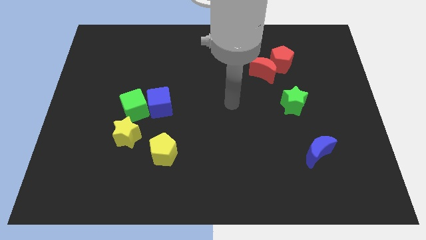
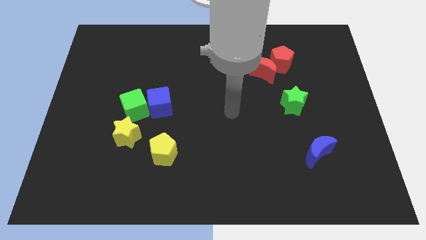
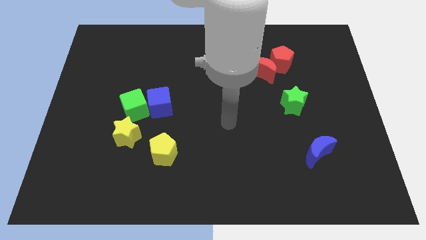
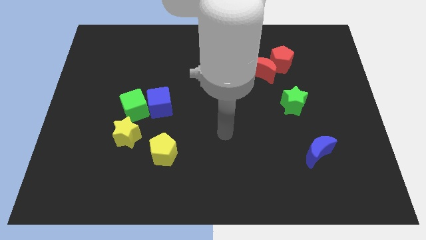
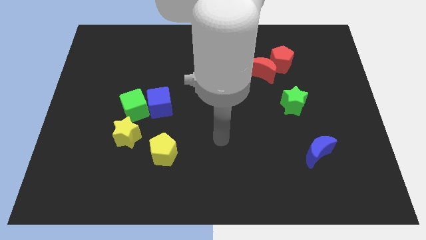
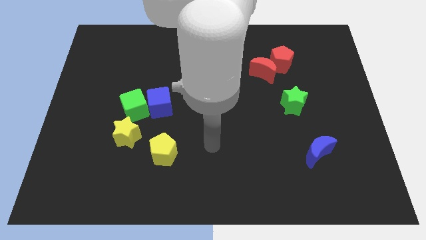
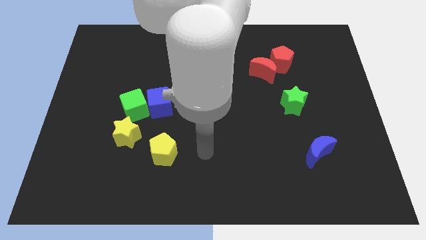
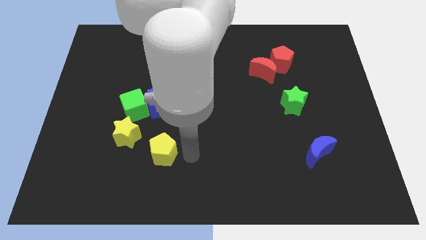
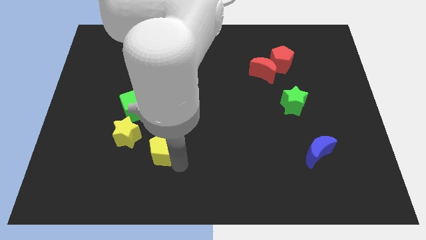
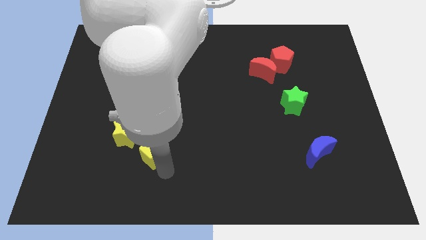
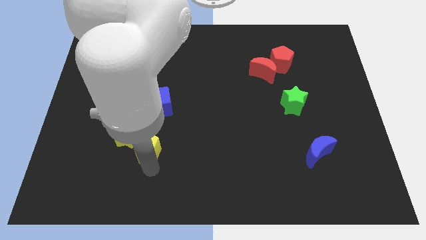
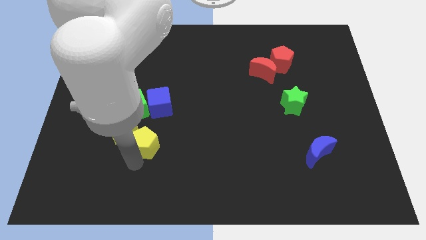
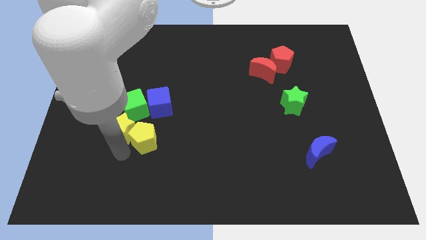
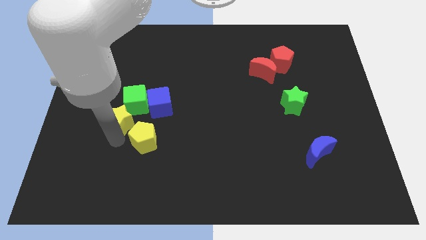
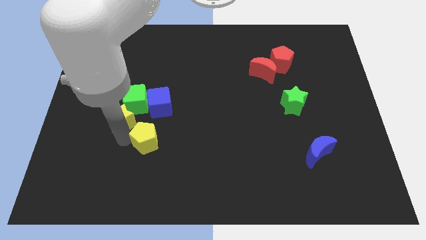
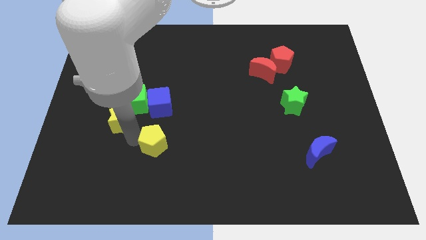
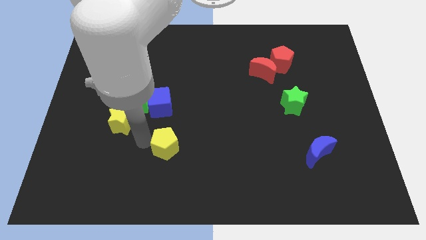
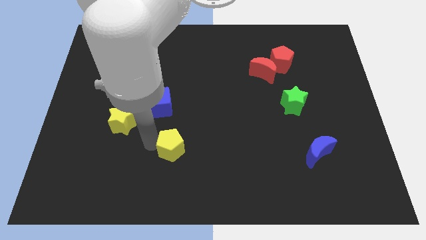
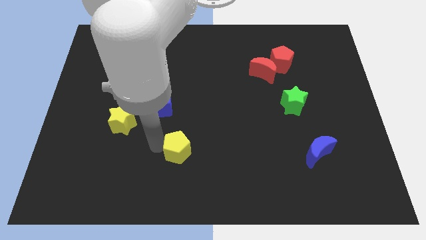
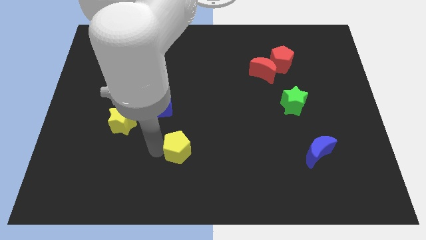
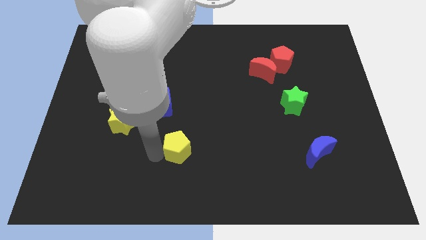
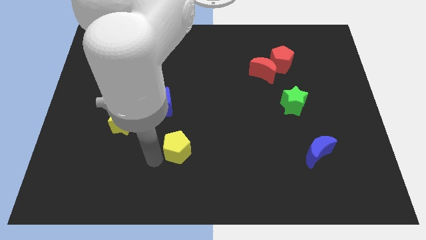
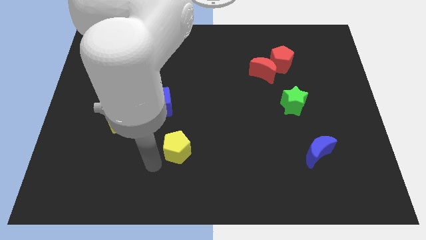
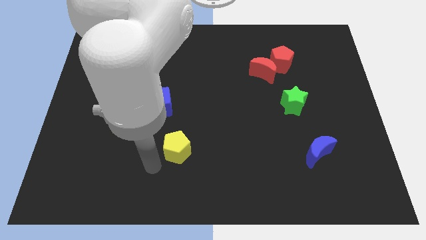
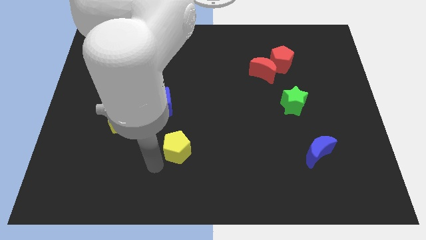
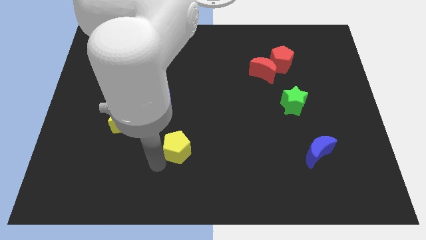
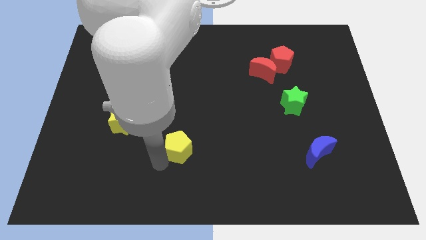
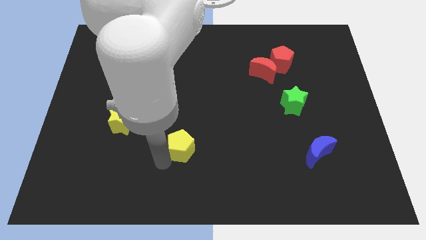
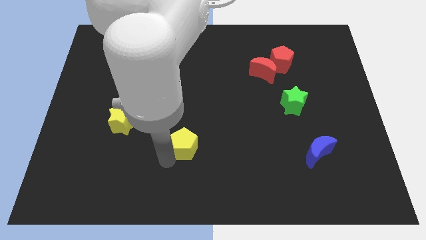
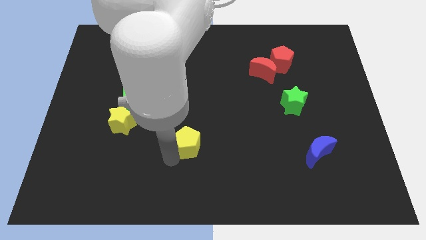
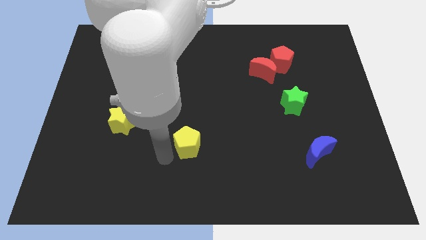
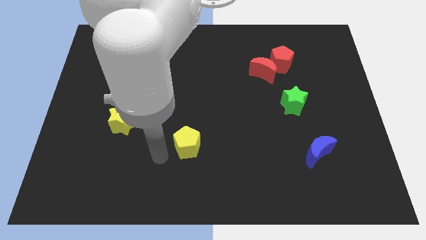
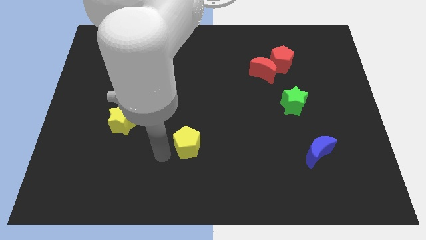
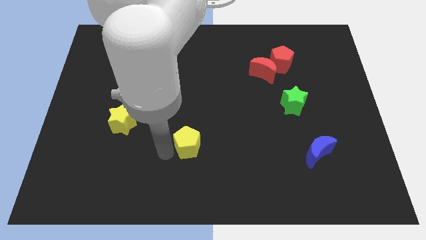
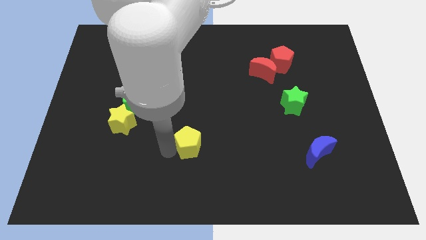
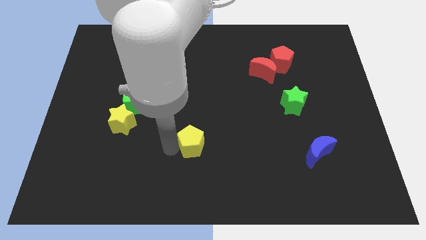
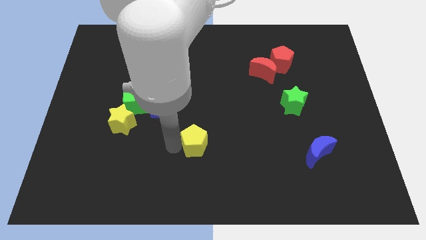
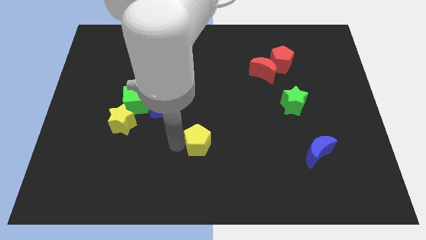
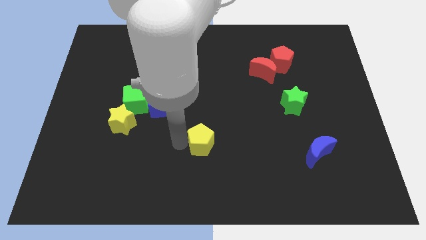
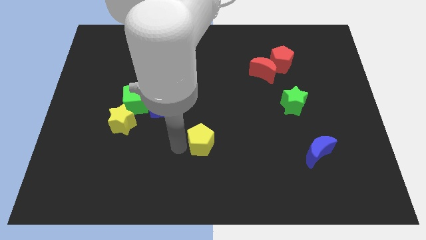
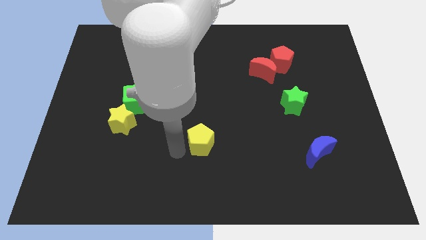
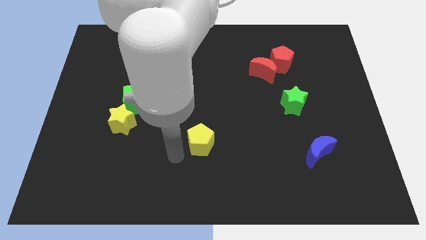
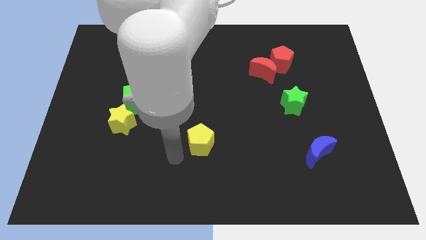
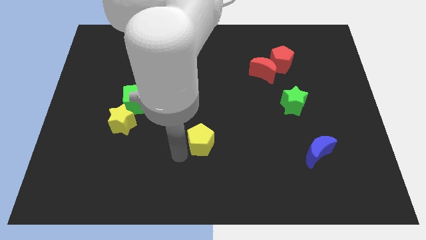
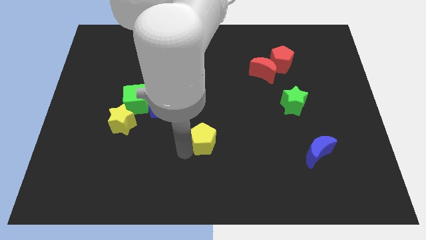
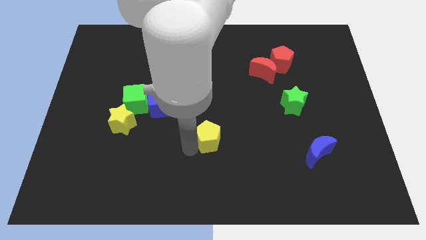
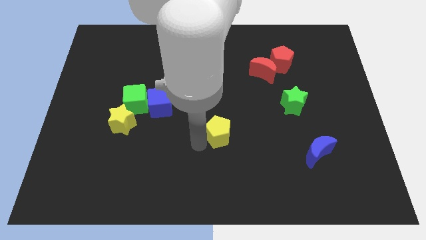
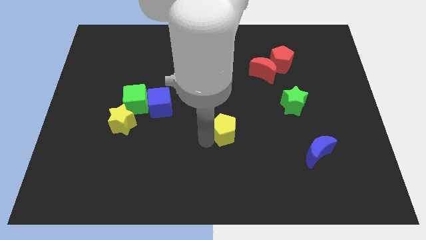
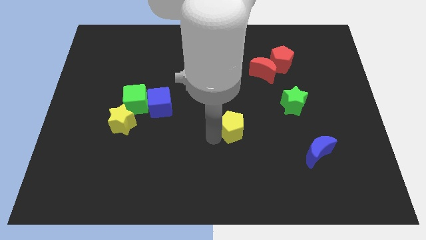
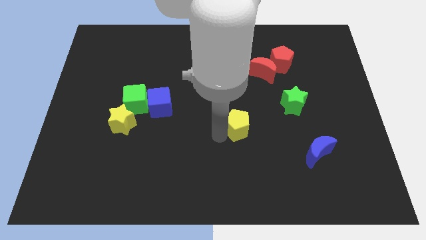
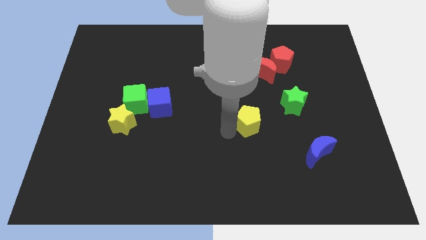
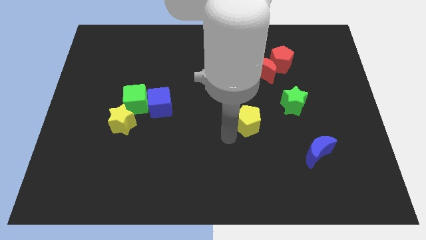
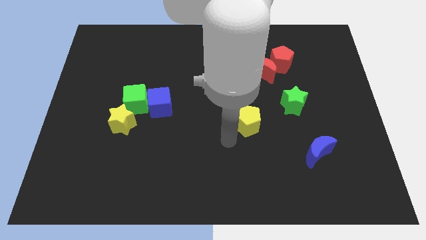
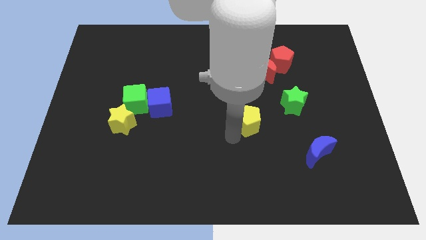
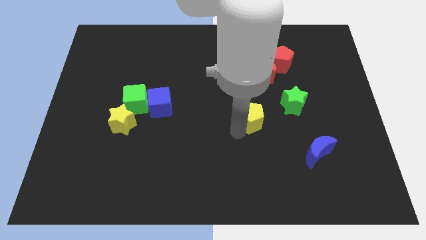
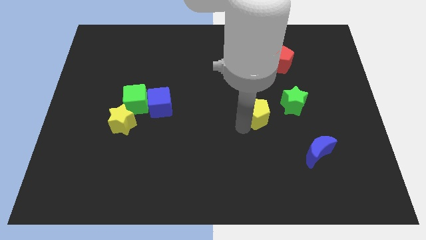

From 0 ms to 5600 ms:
push the yellow pentagon below the red moon

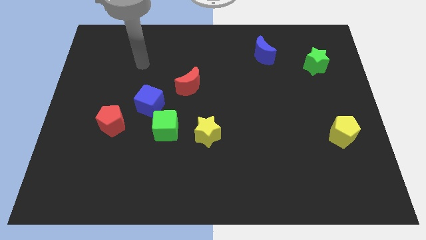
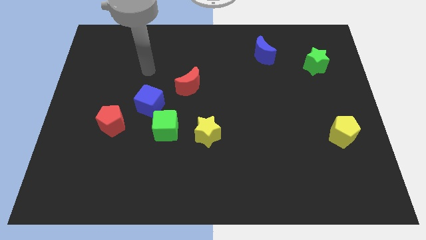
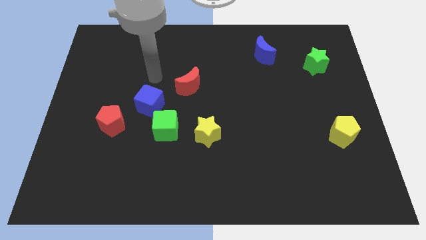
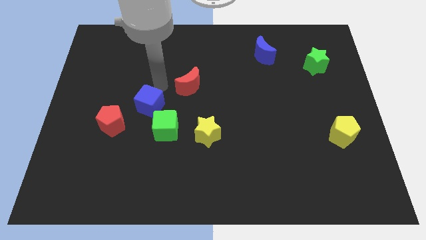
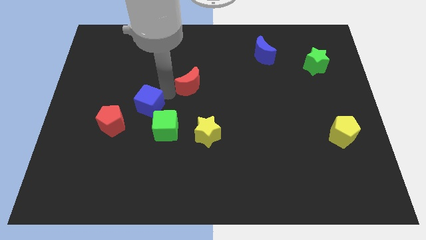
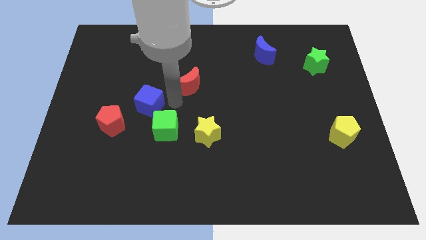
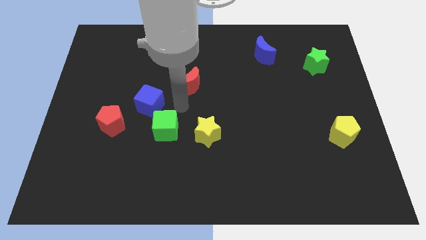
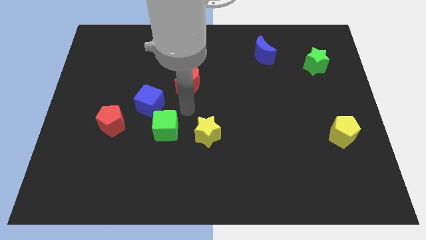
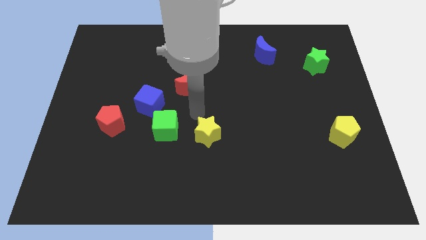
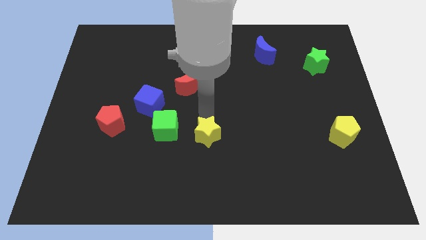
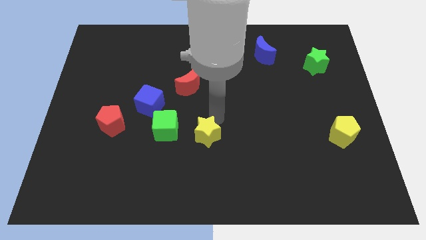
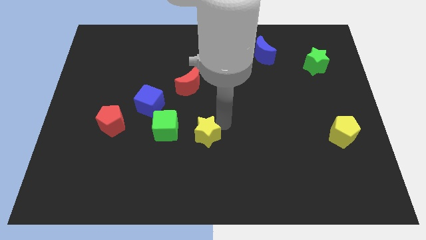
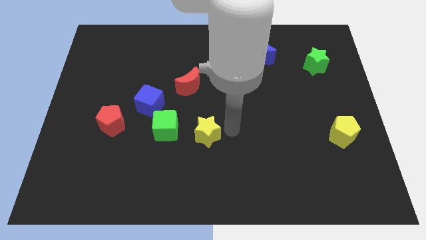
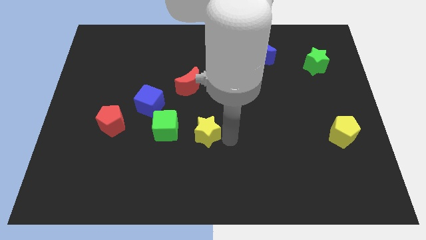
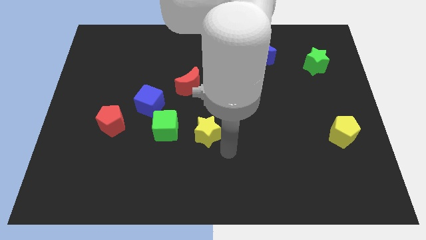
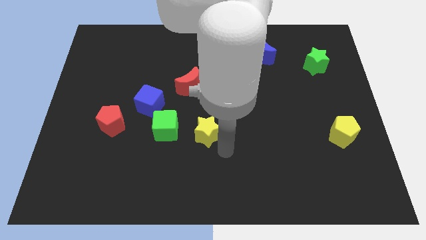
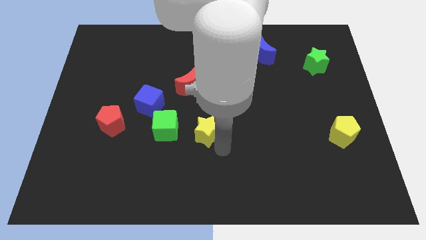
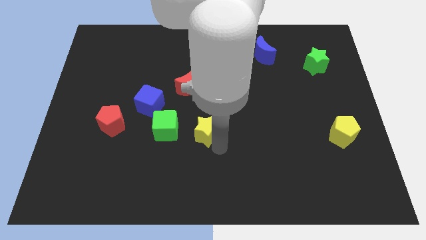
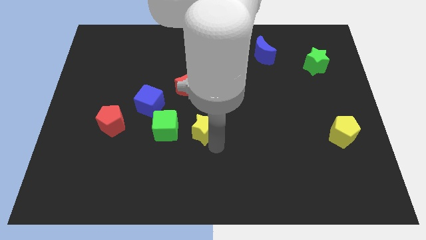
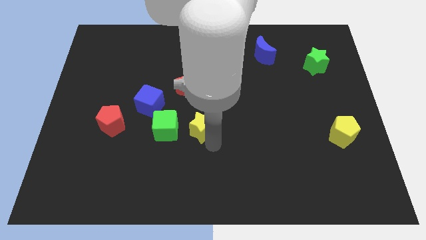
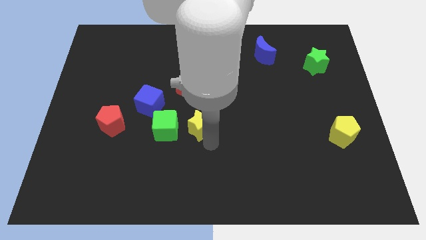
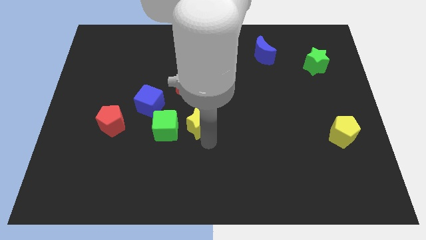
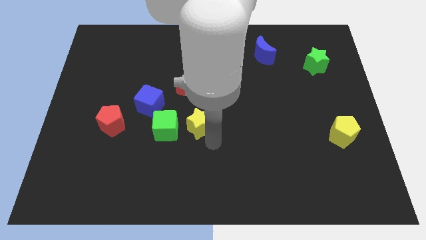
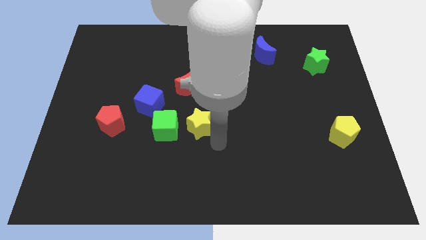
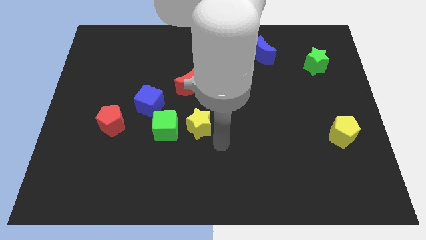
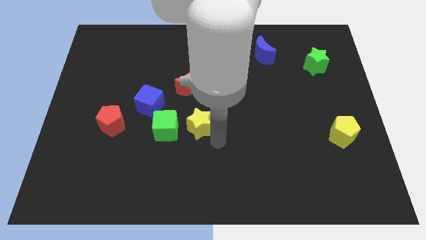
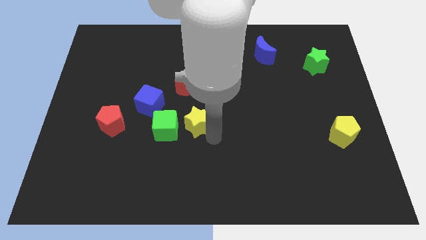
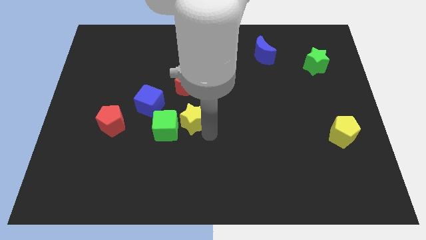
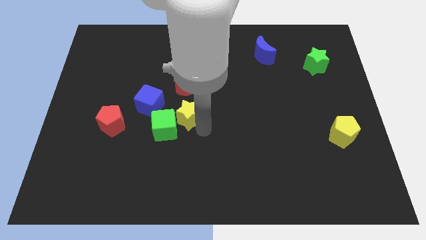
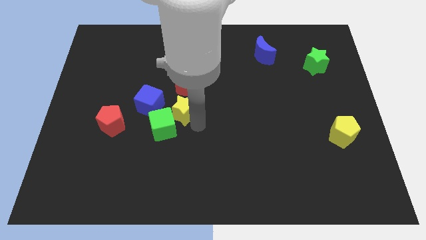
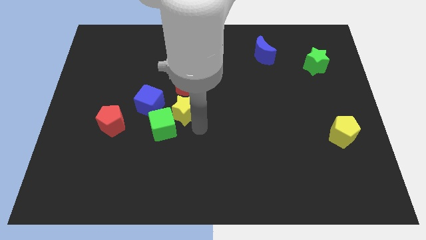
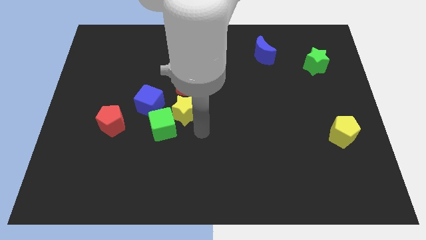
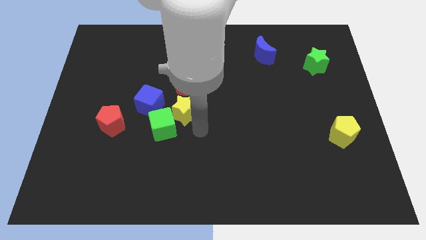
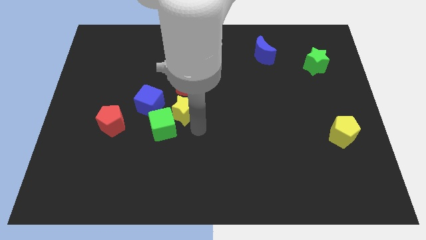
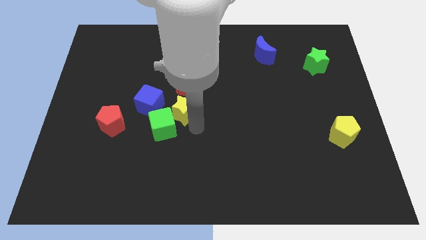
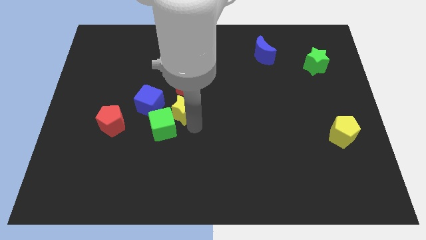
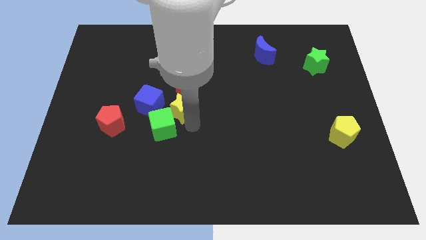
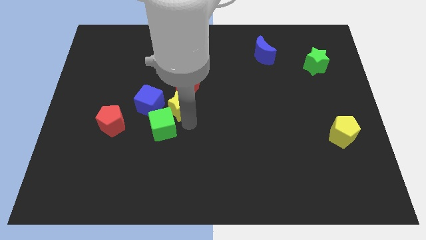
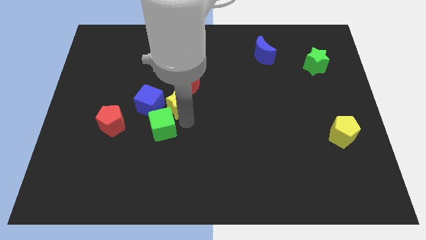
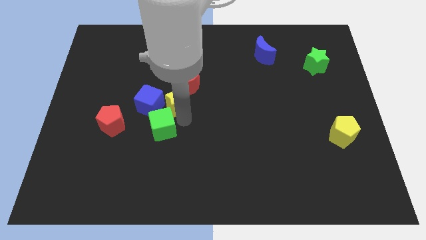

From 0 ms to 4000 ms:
slide the yellow star to the top right side of the blue cube
